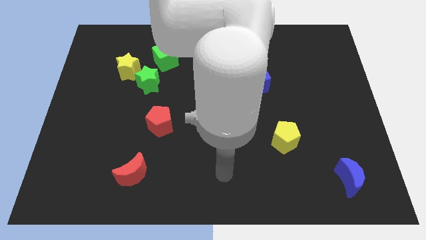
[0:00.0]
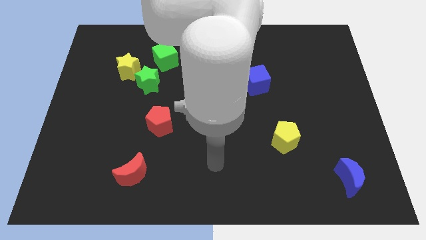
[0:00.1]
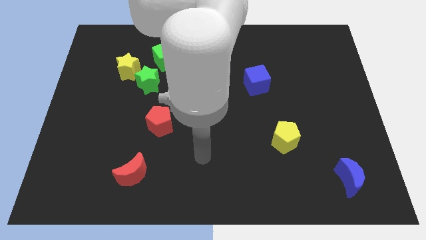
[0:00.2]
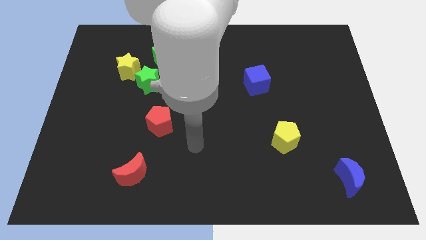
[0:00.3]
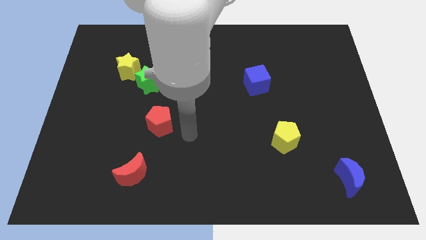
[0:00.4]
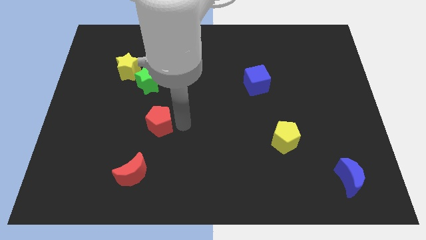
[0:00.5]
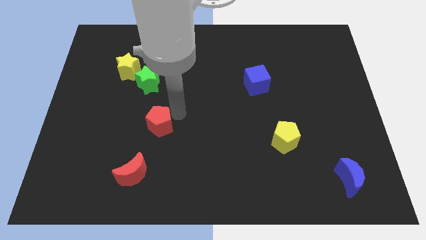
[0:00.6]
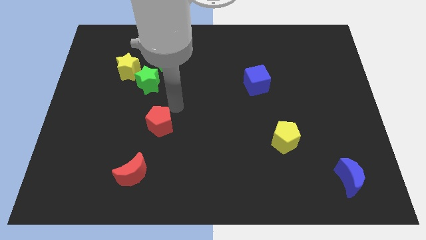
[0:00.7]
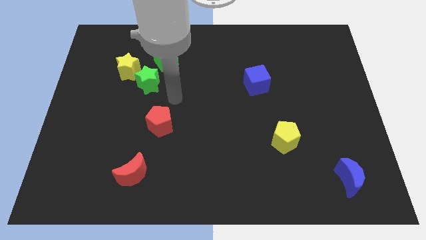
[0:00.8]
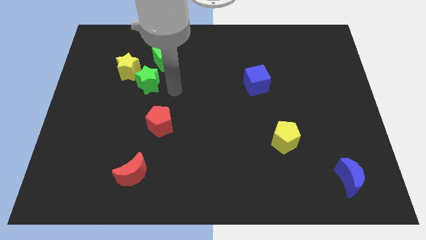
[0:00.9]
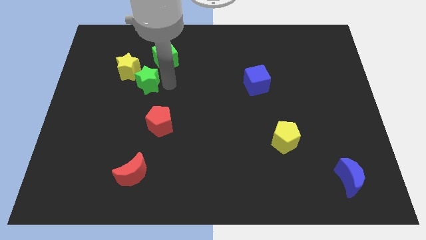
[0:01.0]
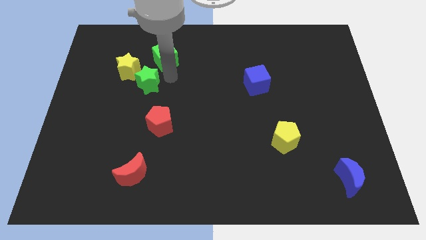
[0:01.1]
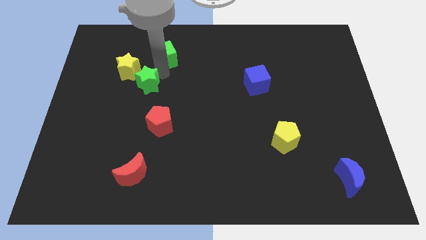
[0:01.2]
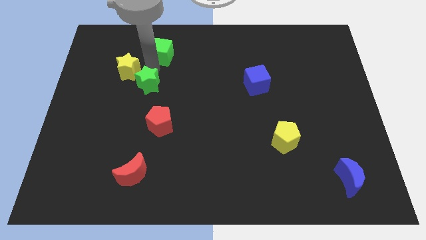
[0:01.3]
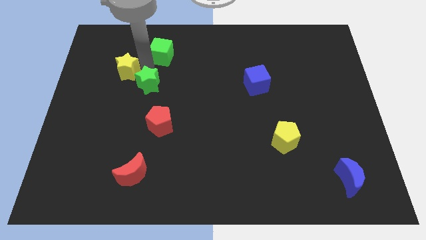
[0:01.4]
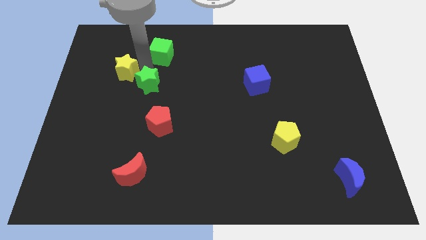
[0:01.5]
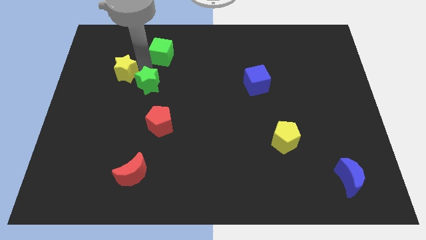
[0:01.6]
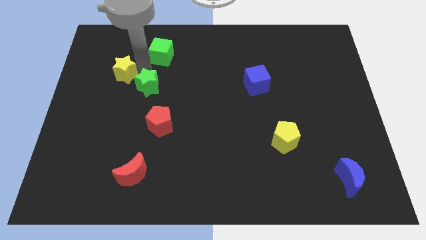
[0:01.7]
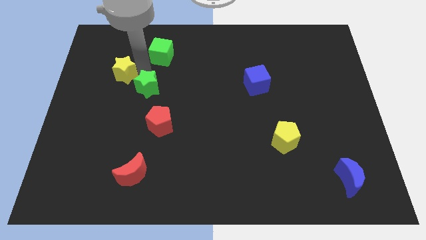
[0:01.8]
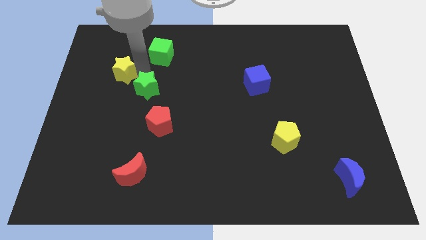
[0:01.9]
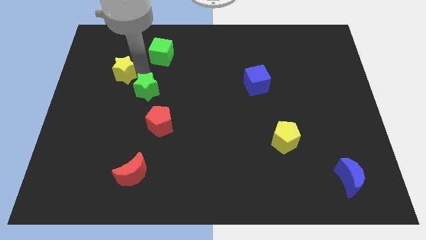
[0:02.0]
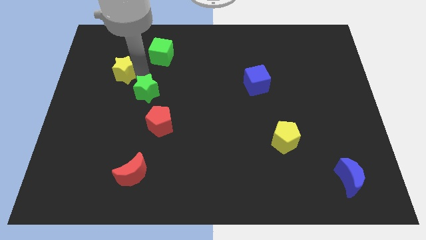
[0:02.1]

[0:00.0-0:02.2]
move the green star away from the yellow star and green cube

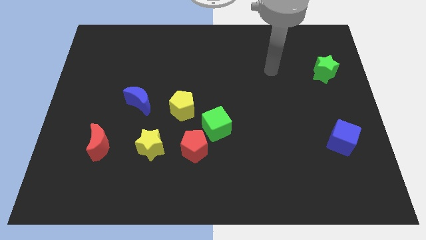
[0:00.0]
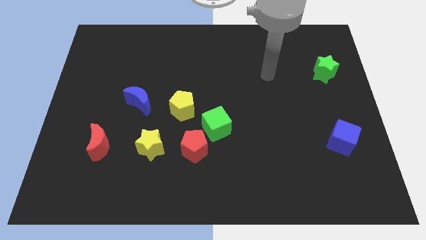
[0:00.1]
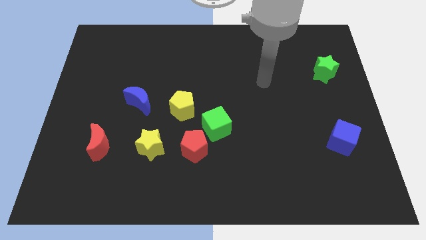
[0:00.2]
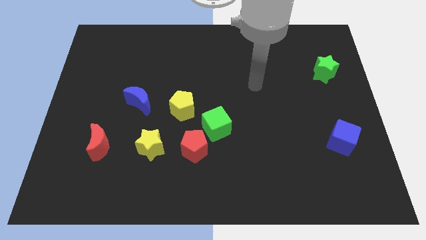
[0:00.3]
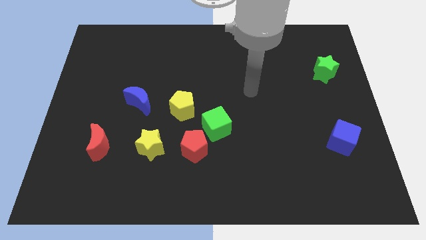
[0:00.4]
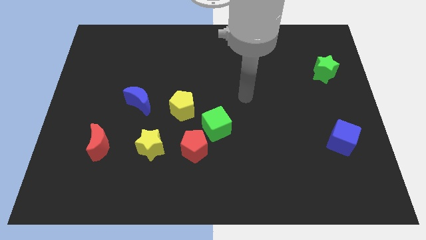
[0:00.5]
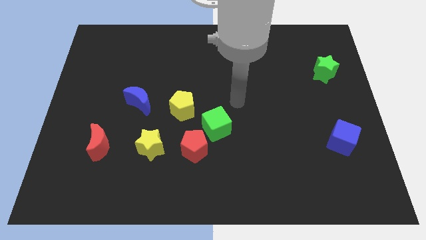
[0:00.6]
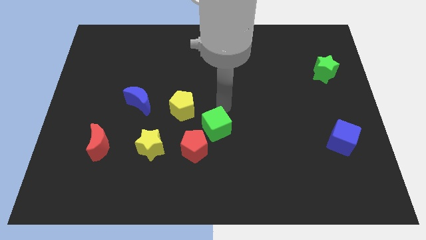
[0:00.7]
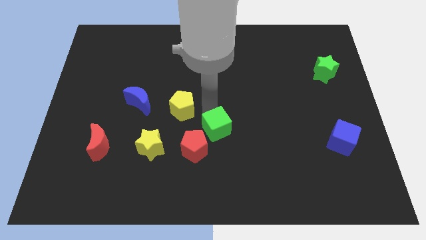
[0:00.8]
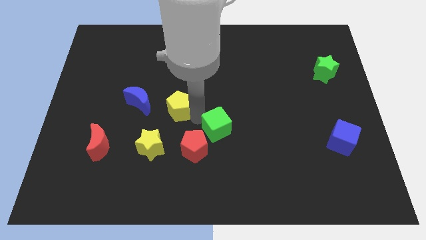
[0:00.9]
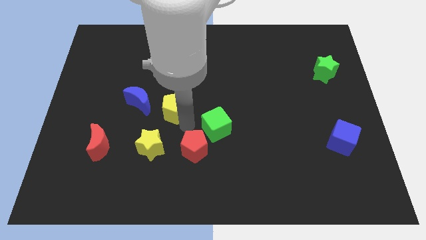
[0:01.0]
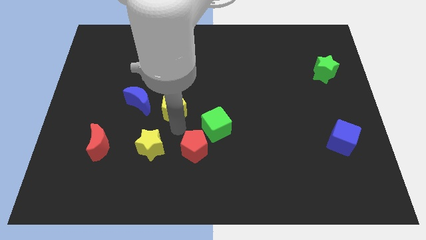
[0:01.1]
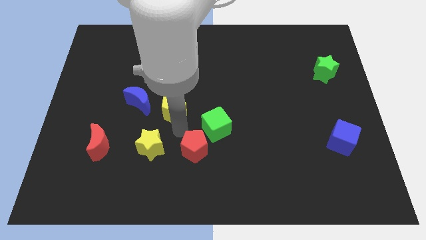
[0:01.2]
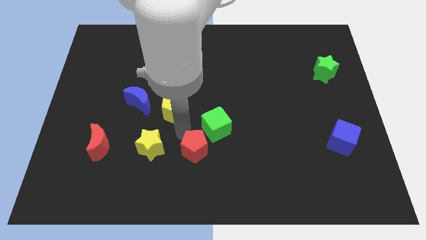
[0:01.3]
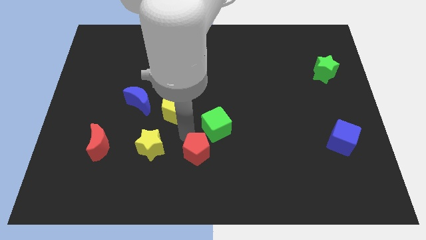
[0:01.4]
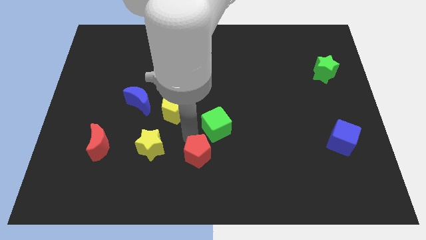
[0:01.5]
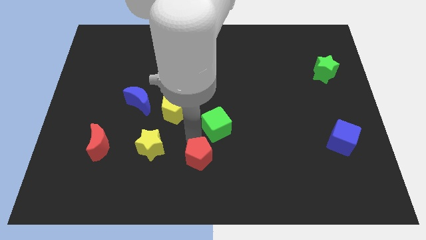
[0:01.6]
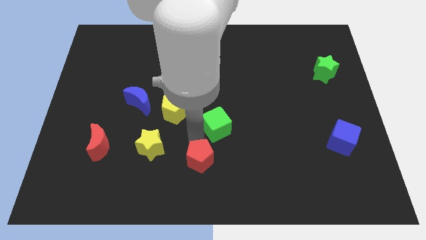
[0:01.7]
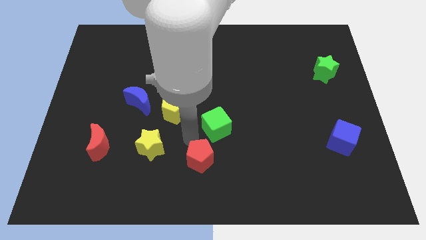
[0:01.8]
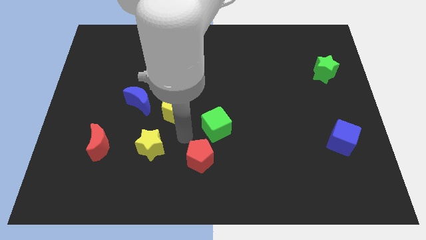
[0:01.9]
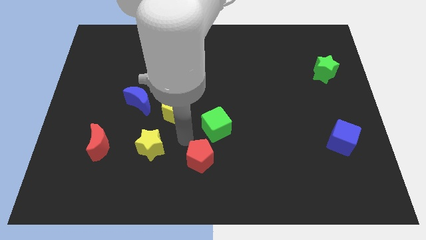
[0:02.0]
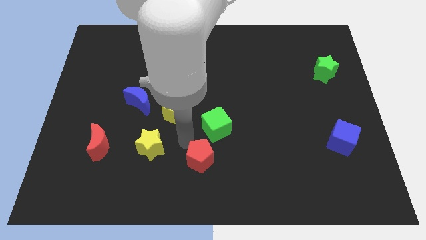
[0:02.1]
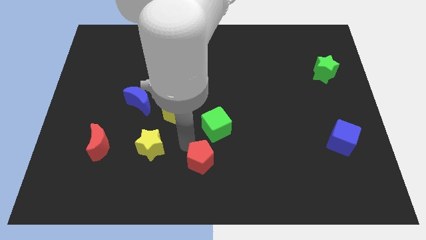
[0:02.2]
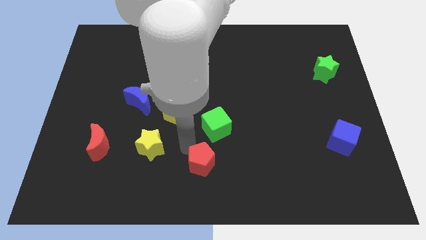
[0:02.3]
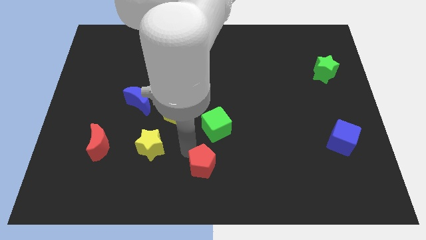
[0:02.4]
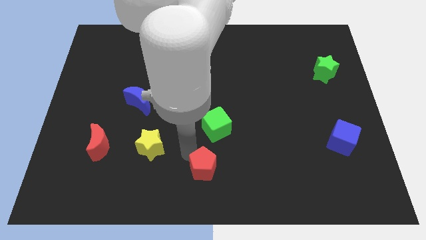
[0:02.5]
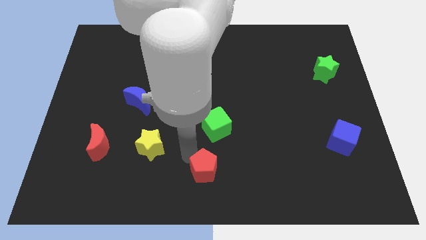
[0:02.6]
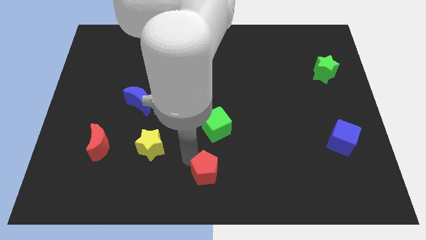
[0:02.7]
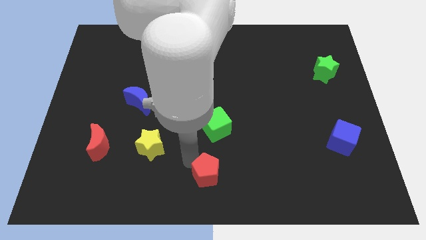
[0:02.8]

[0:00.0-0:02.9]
pull the red pentagon apart from the green cube and yellow star

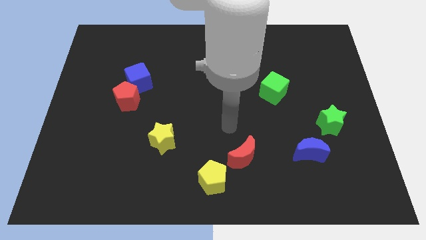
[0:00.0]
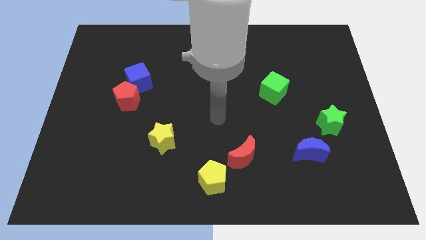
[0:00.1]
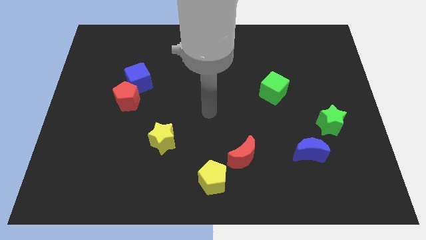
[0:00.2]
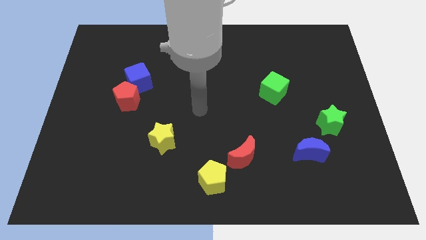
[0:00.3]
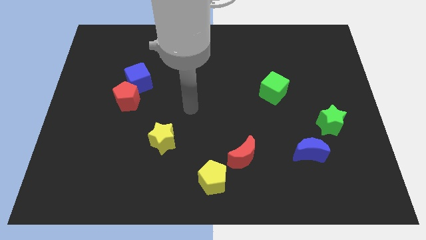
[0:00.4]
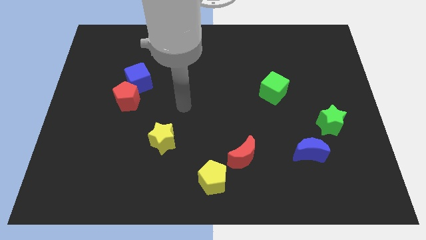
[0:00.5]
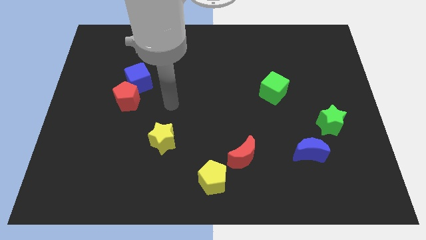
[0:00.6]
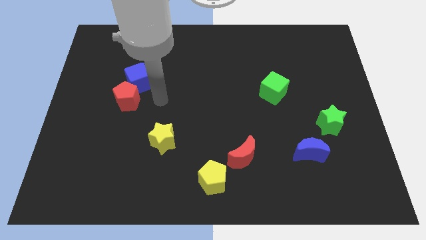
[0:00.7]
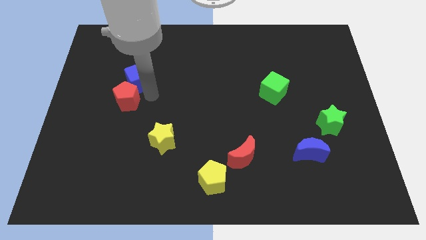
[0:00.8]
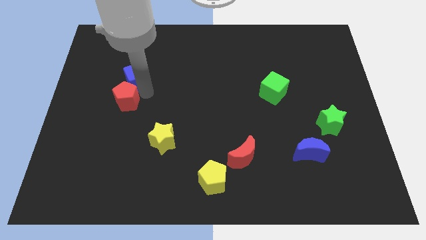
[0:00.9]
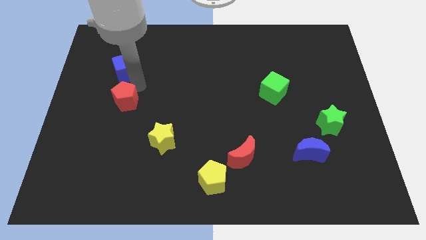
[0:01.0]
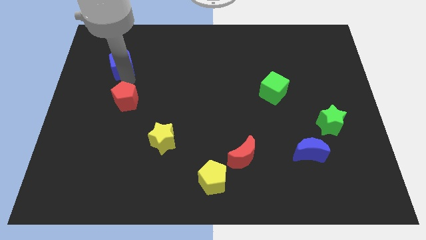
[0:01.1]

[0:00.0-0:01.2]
move the red pentagon away from the blue cube

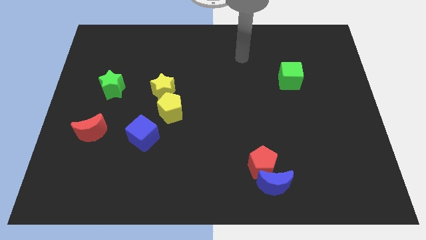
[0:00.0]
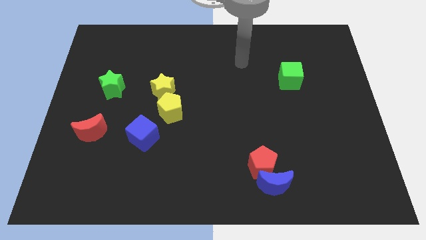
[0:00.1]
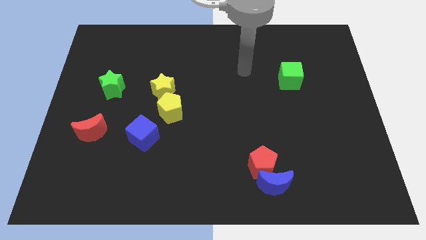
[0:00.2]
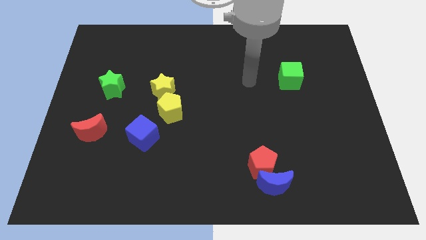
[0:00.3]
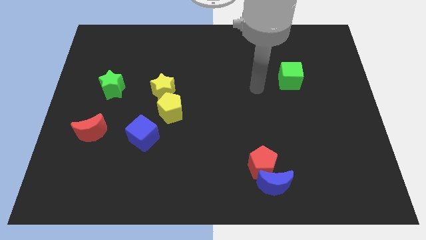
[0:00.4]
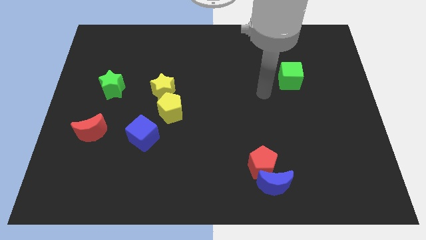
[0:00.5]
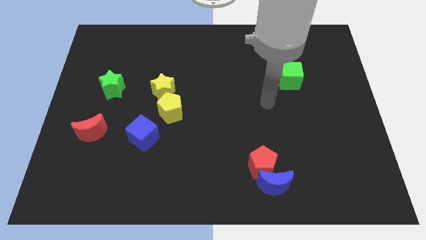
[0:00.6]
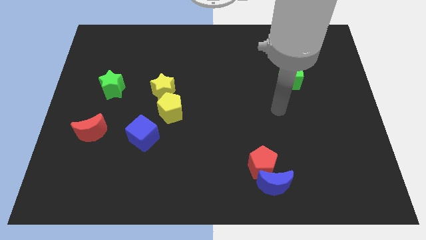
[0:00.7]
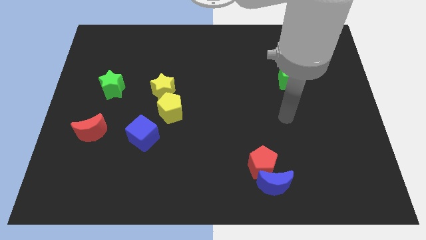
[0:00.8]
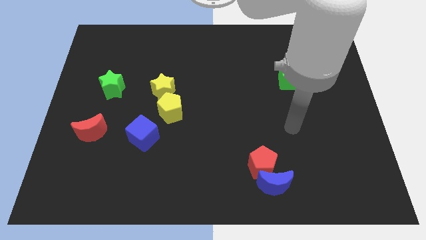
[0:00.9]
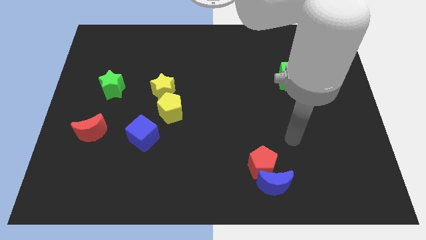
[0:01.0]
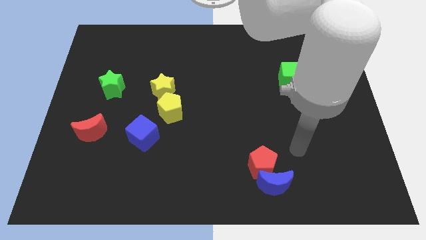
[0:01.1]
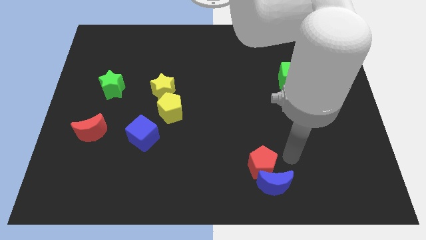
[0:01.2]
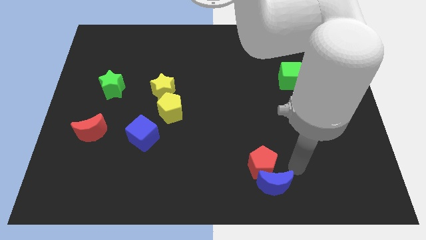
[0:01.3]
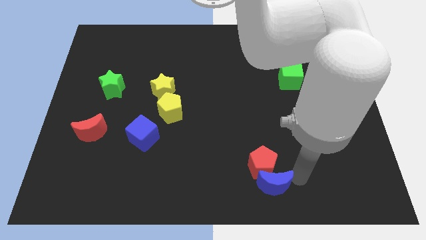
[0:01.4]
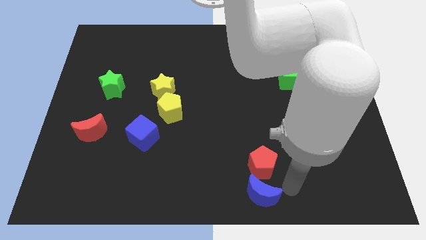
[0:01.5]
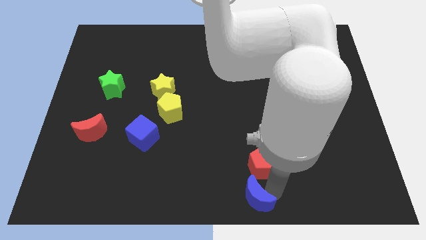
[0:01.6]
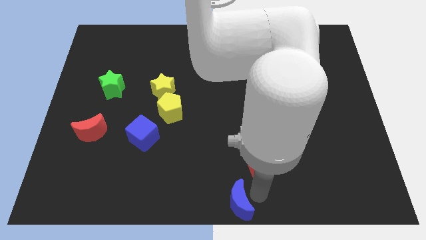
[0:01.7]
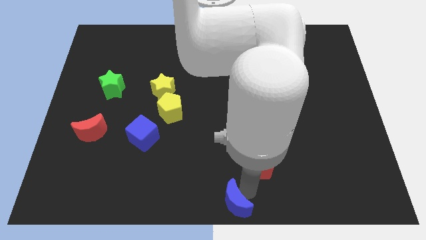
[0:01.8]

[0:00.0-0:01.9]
separate the red pentagon from the blue moon

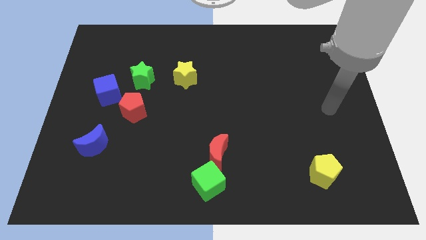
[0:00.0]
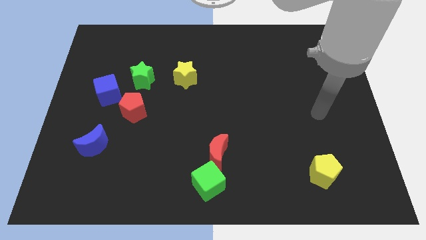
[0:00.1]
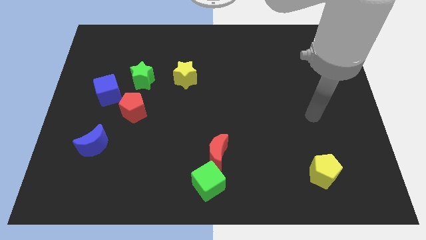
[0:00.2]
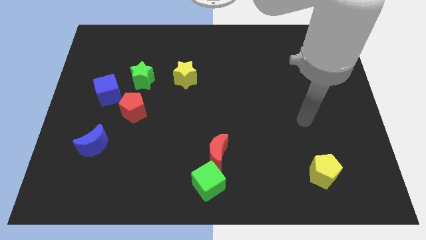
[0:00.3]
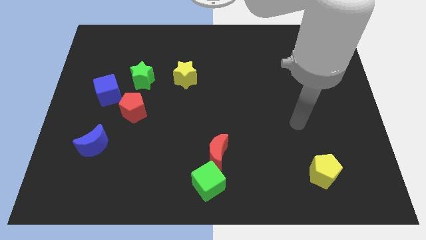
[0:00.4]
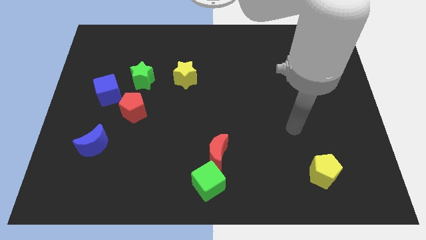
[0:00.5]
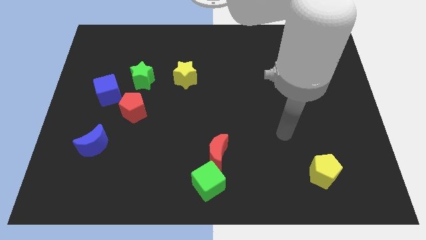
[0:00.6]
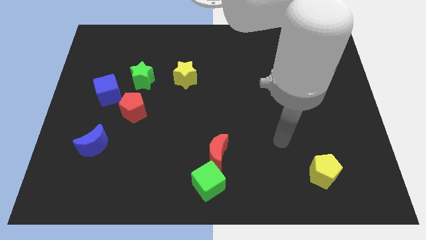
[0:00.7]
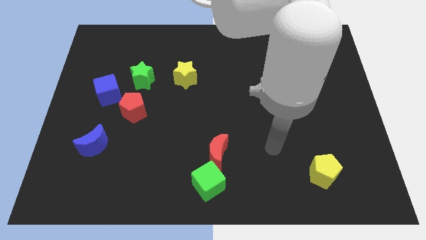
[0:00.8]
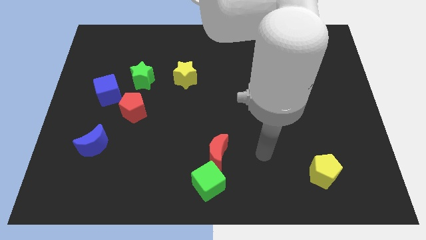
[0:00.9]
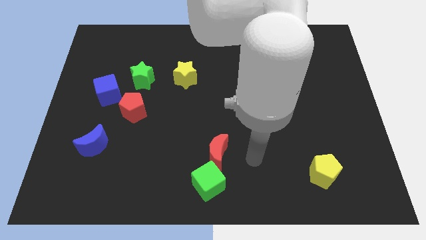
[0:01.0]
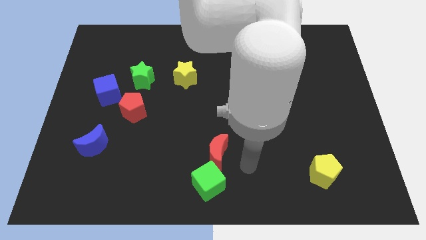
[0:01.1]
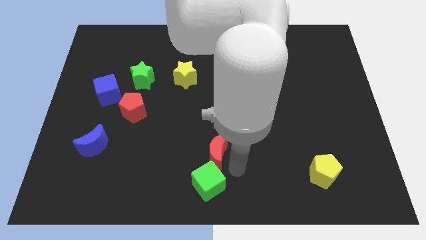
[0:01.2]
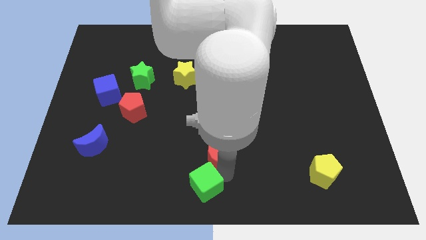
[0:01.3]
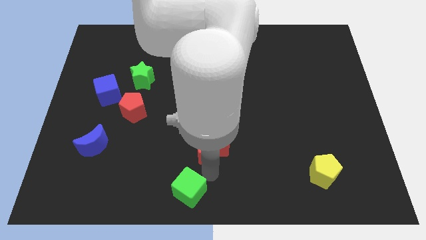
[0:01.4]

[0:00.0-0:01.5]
separate the red moon from the green cube
